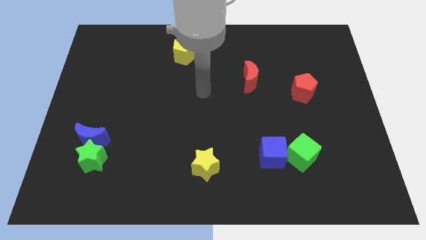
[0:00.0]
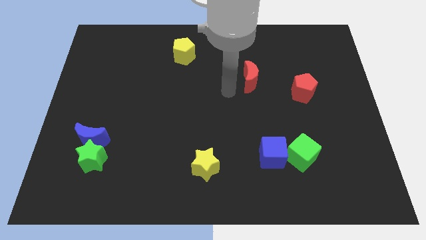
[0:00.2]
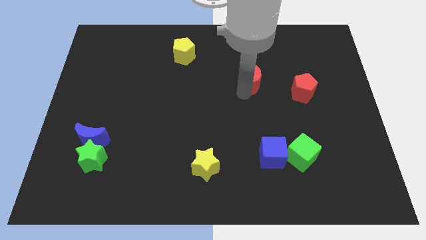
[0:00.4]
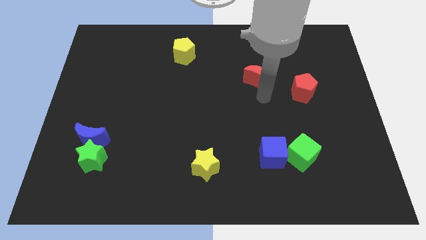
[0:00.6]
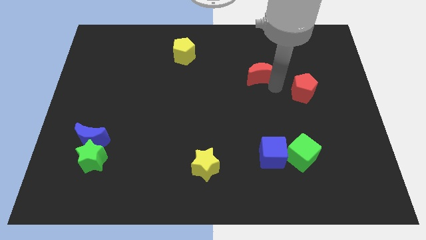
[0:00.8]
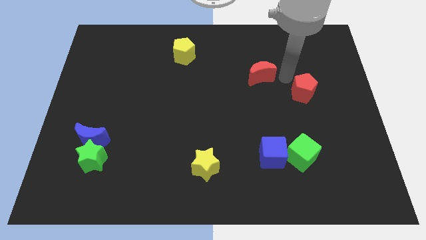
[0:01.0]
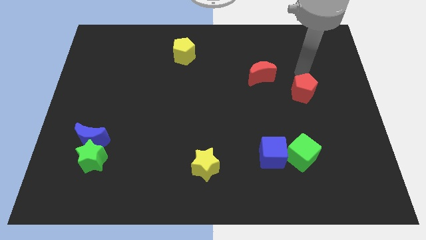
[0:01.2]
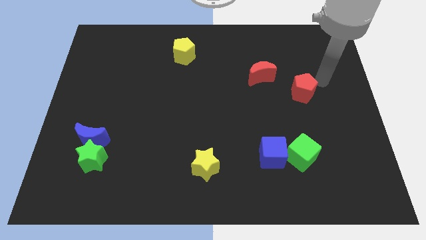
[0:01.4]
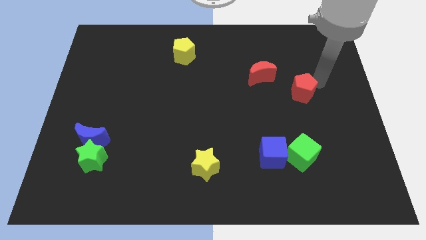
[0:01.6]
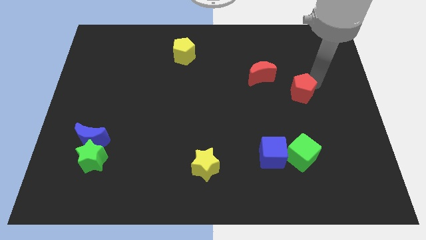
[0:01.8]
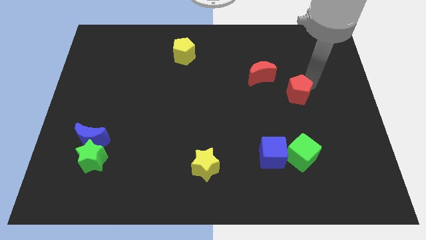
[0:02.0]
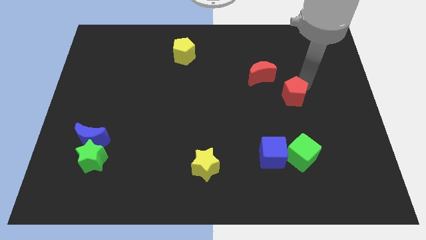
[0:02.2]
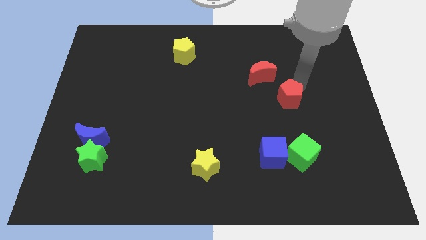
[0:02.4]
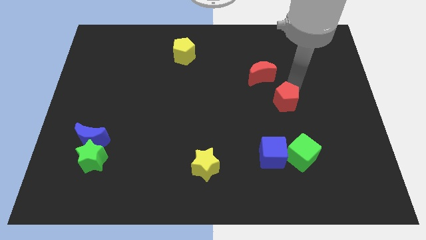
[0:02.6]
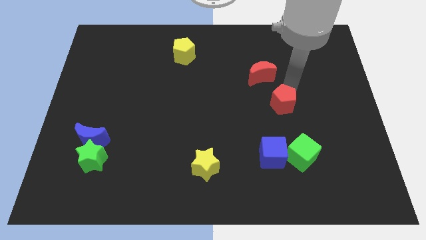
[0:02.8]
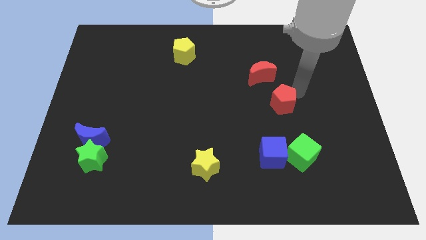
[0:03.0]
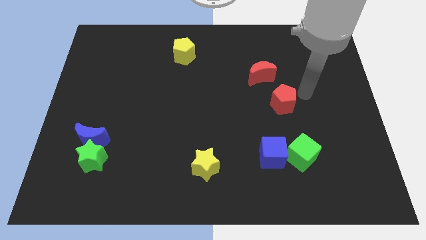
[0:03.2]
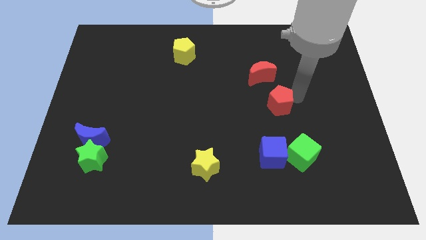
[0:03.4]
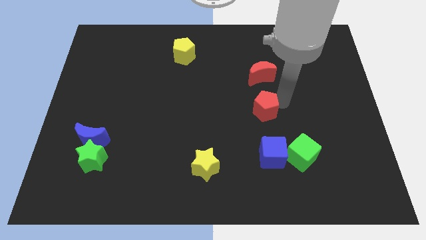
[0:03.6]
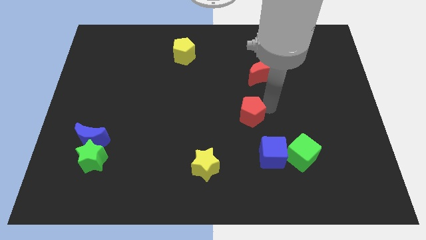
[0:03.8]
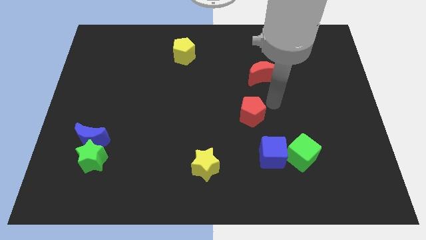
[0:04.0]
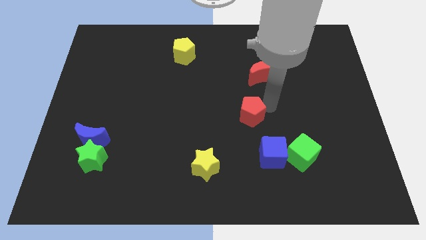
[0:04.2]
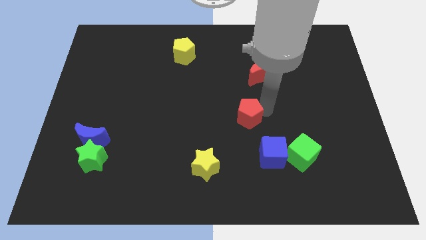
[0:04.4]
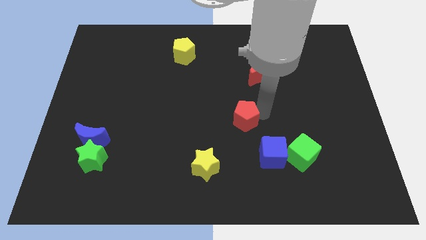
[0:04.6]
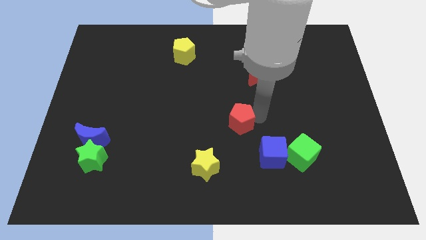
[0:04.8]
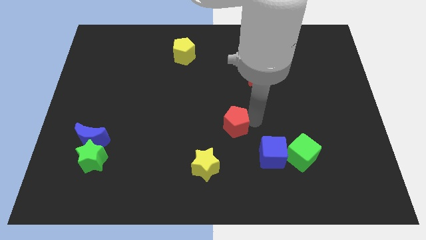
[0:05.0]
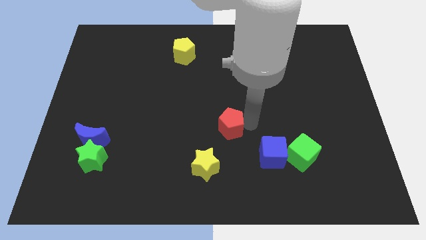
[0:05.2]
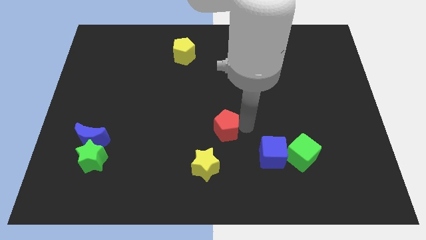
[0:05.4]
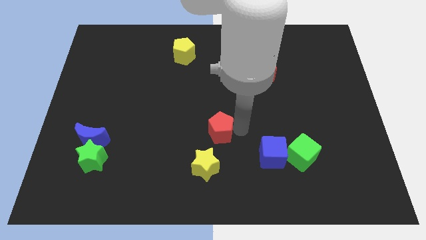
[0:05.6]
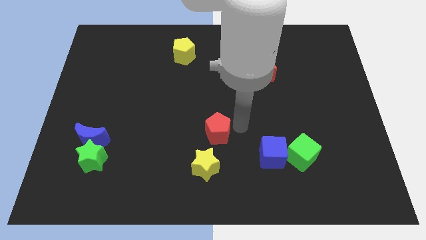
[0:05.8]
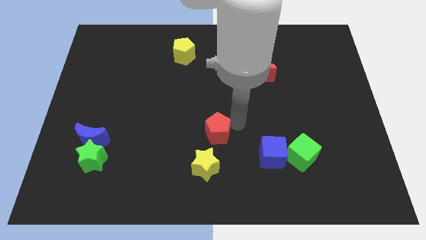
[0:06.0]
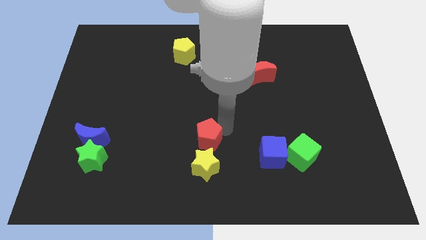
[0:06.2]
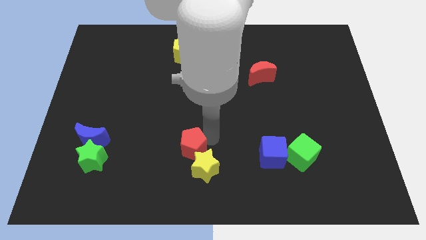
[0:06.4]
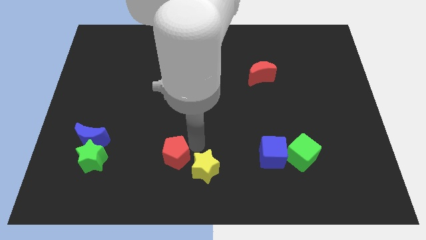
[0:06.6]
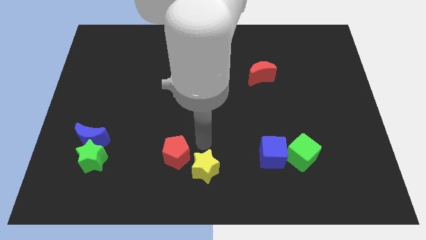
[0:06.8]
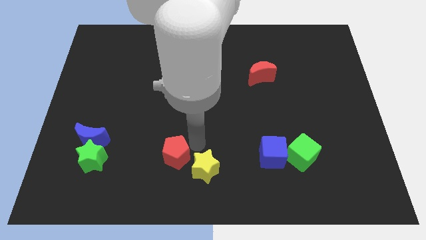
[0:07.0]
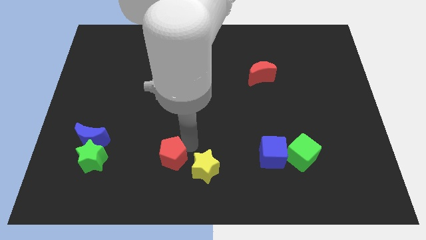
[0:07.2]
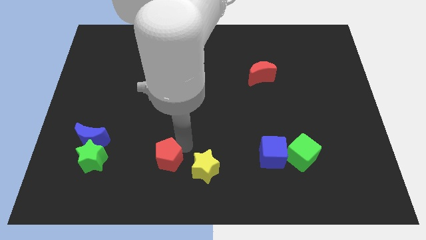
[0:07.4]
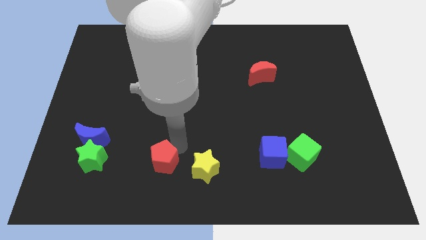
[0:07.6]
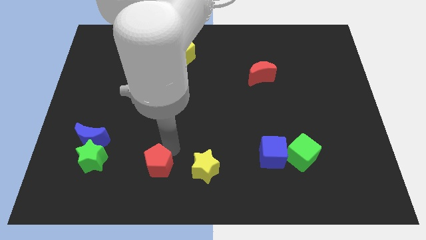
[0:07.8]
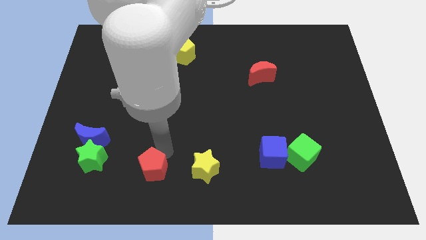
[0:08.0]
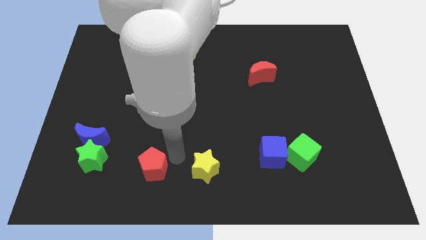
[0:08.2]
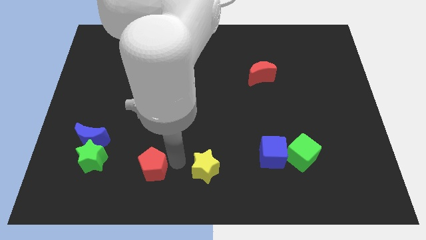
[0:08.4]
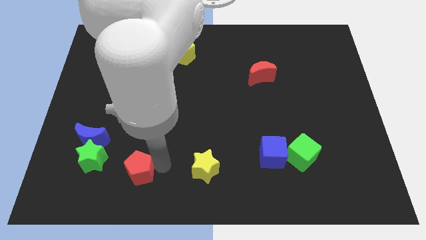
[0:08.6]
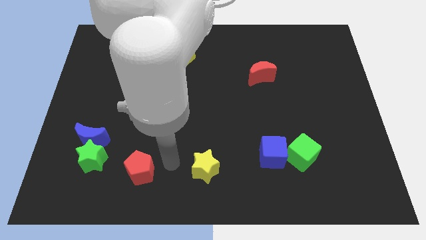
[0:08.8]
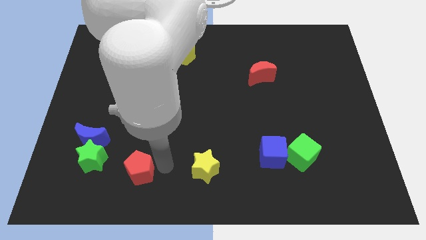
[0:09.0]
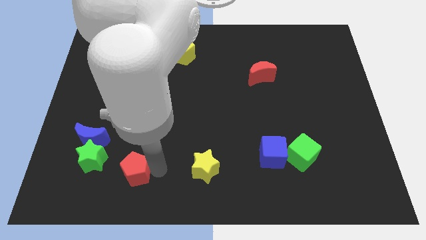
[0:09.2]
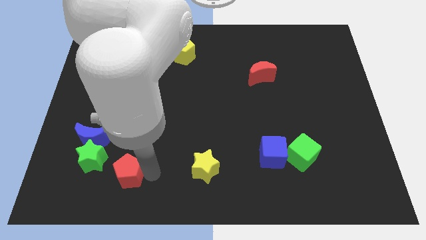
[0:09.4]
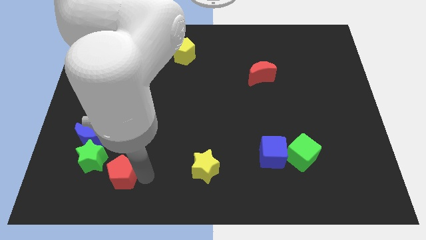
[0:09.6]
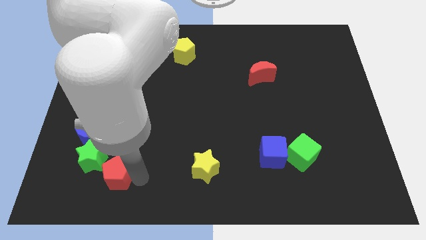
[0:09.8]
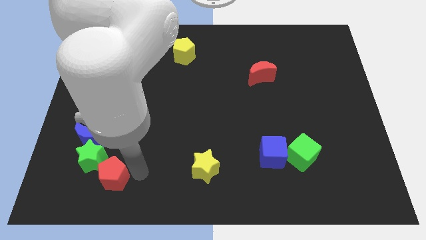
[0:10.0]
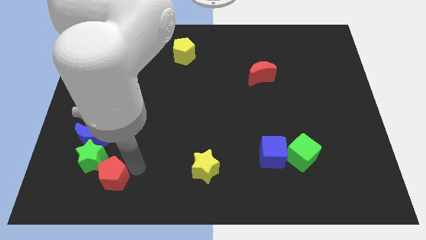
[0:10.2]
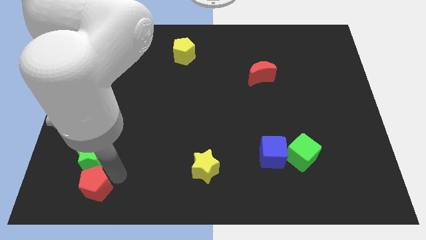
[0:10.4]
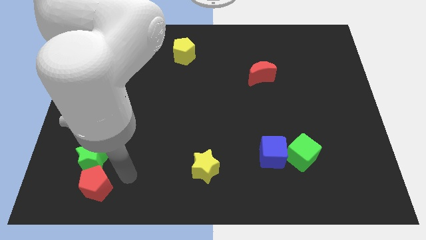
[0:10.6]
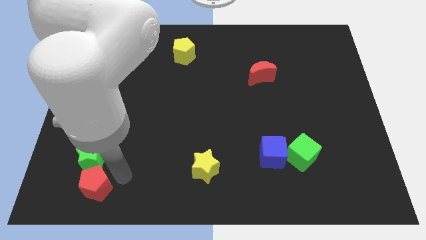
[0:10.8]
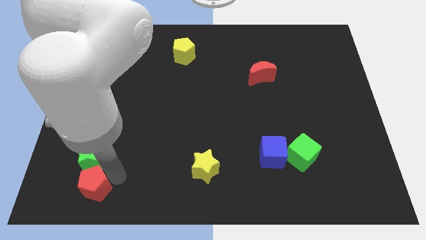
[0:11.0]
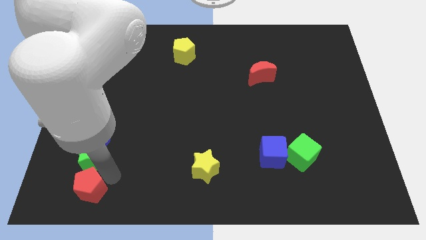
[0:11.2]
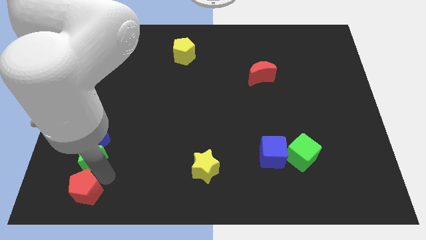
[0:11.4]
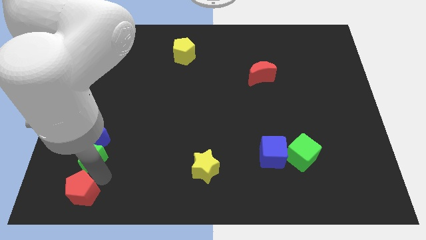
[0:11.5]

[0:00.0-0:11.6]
put the red pentagon to the bottom left of the board
